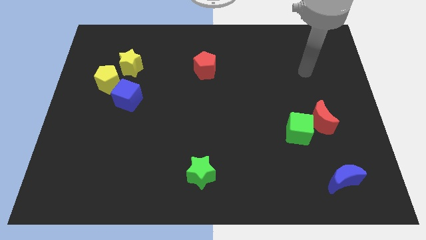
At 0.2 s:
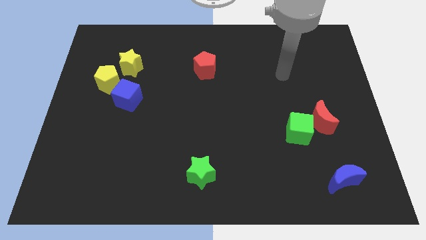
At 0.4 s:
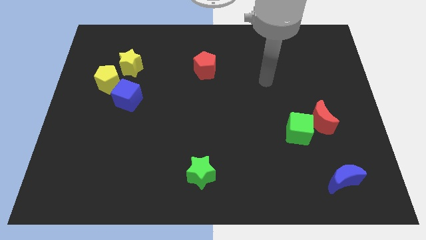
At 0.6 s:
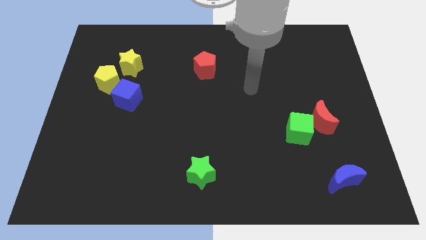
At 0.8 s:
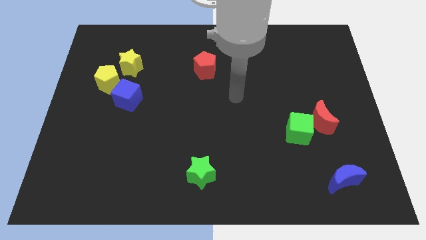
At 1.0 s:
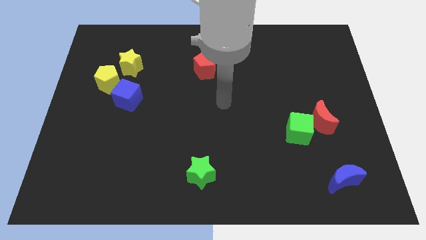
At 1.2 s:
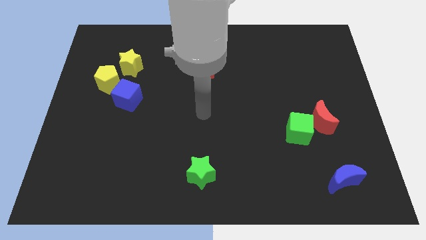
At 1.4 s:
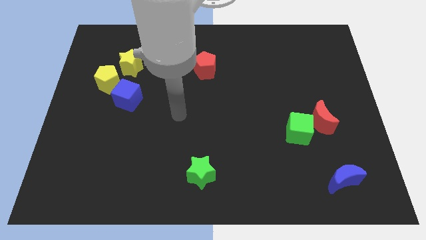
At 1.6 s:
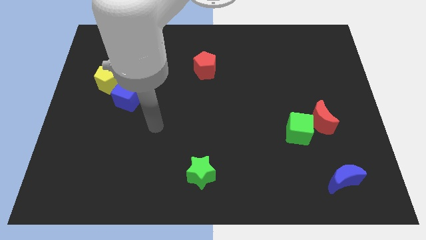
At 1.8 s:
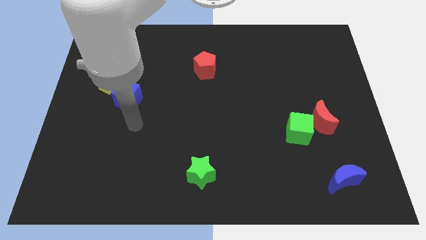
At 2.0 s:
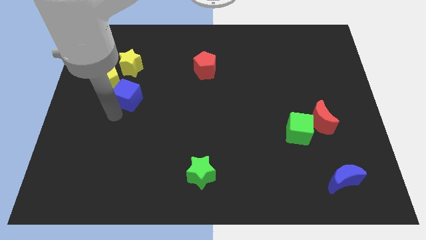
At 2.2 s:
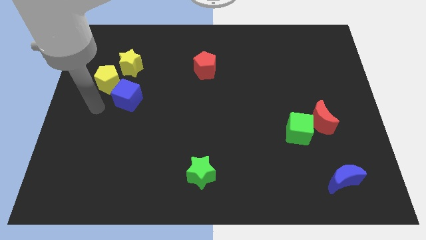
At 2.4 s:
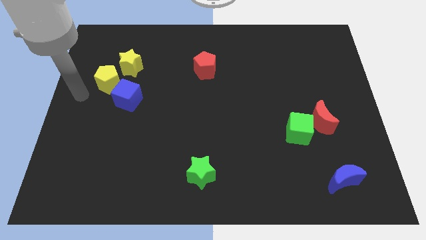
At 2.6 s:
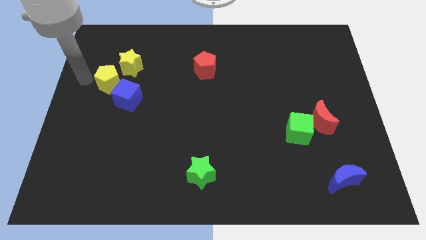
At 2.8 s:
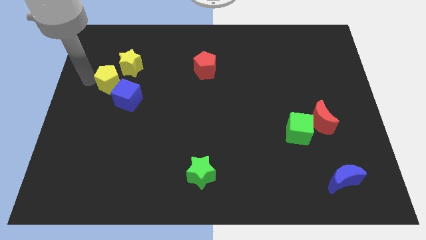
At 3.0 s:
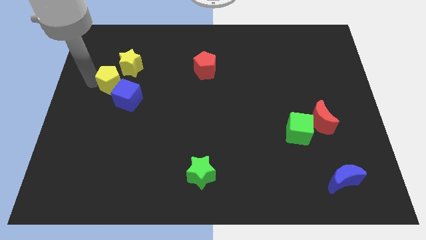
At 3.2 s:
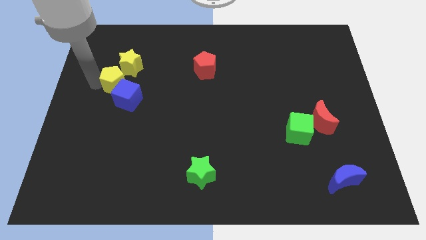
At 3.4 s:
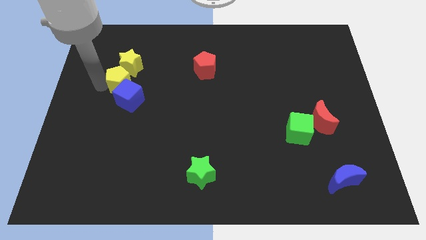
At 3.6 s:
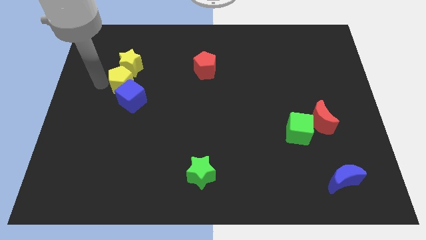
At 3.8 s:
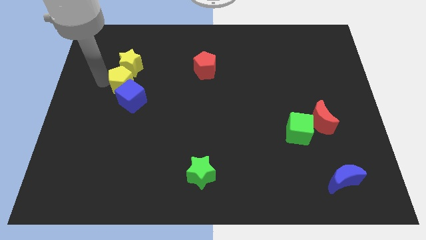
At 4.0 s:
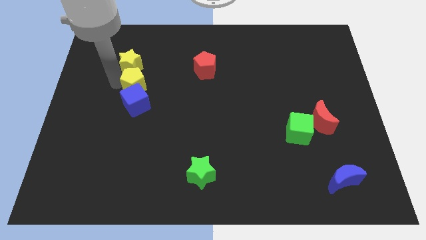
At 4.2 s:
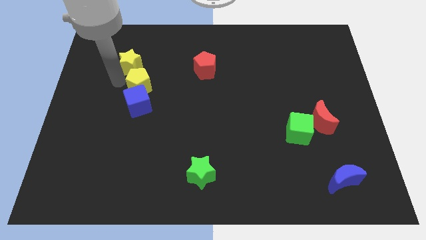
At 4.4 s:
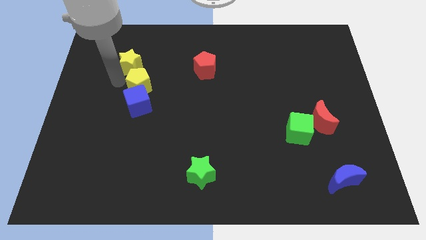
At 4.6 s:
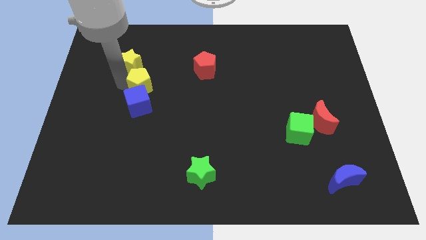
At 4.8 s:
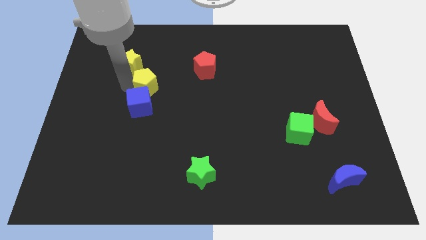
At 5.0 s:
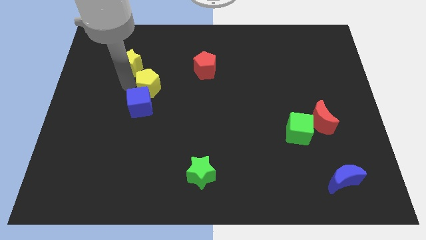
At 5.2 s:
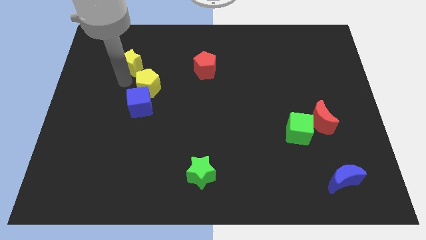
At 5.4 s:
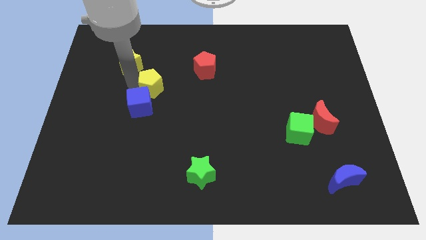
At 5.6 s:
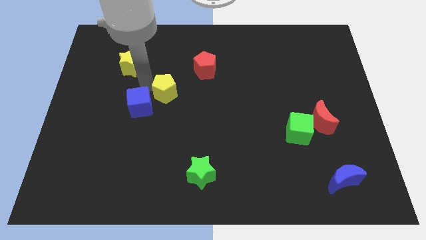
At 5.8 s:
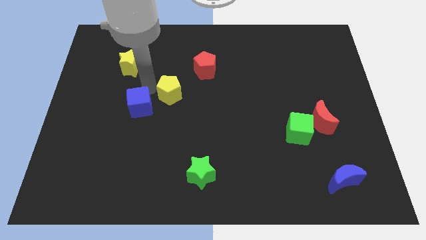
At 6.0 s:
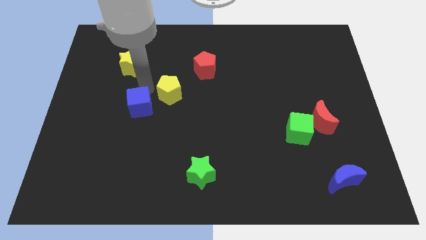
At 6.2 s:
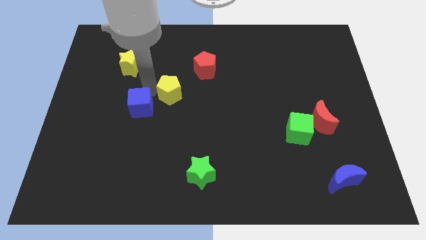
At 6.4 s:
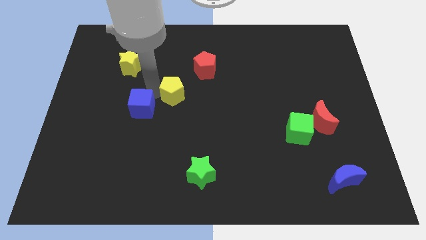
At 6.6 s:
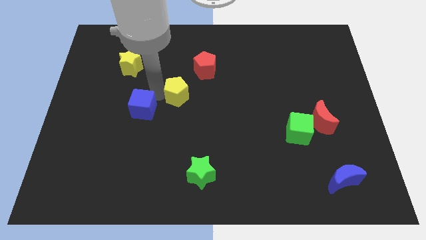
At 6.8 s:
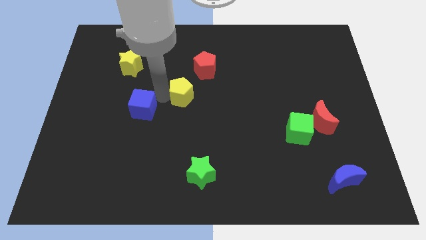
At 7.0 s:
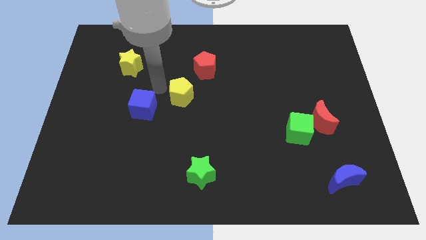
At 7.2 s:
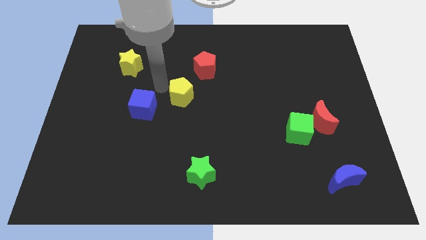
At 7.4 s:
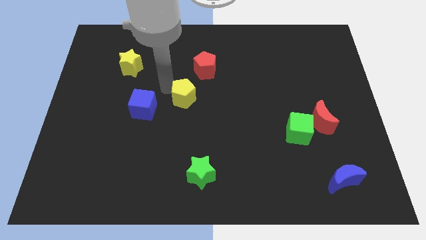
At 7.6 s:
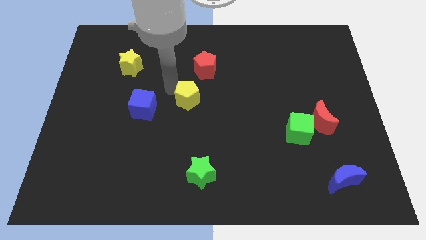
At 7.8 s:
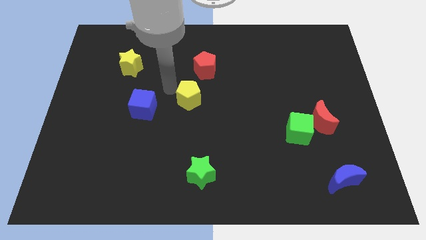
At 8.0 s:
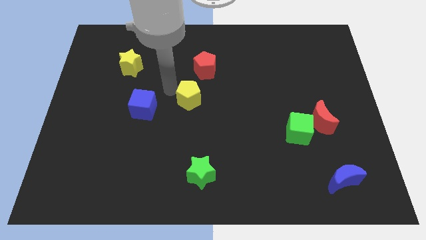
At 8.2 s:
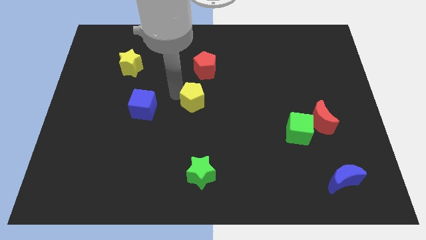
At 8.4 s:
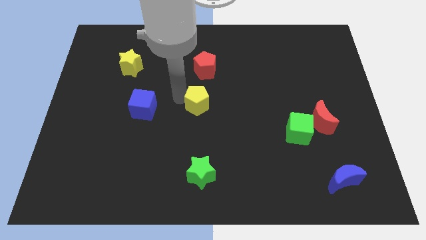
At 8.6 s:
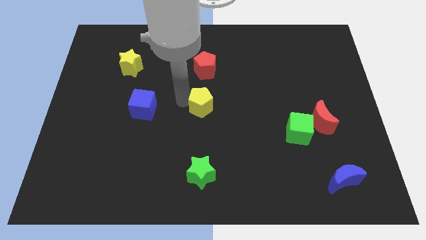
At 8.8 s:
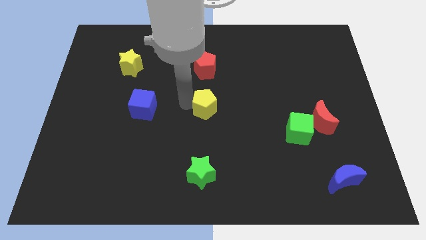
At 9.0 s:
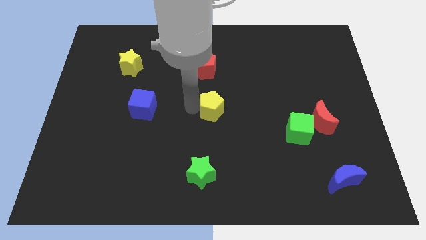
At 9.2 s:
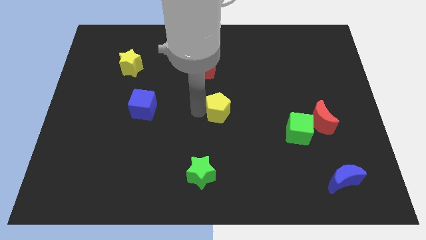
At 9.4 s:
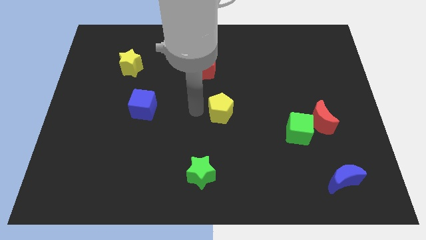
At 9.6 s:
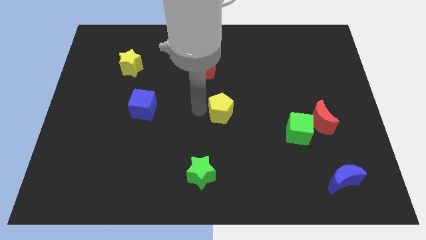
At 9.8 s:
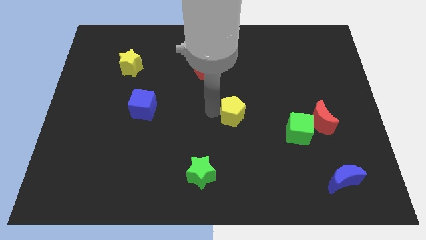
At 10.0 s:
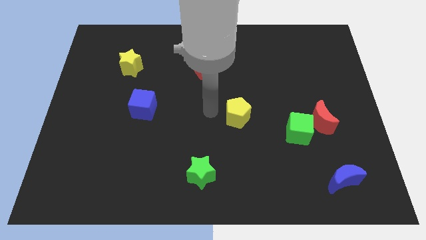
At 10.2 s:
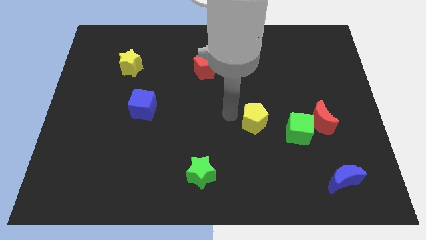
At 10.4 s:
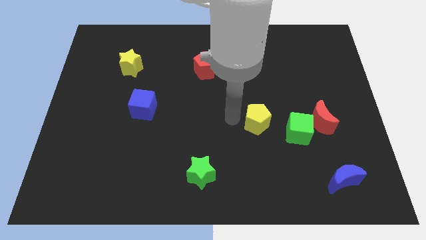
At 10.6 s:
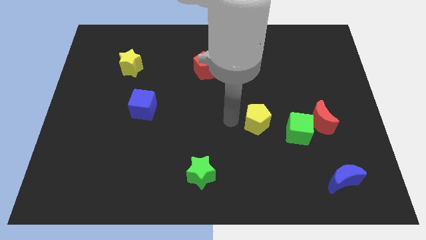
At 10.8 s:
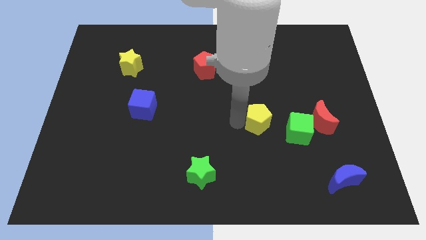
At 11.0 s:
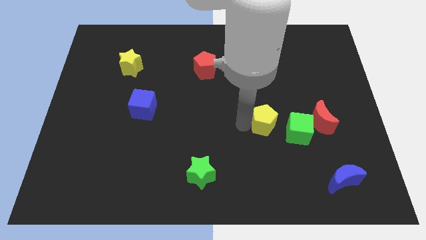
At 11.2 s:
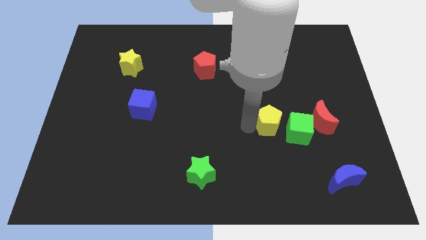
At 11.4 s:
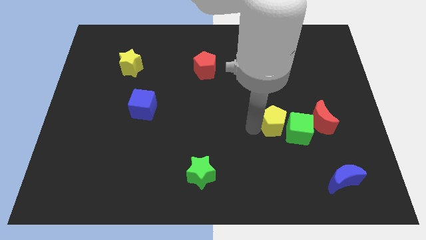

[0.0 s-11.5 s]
push the yellow pentagon to the green cube

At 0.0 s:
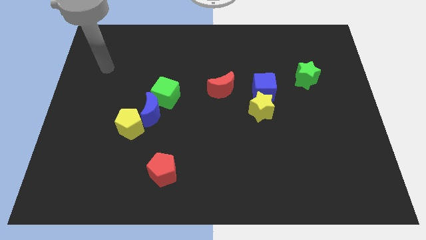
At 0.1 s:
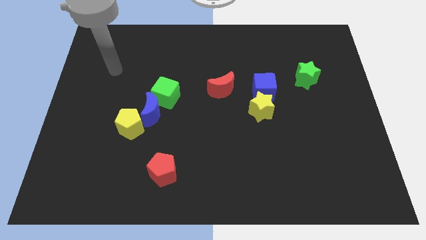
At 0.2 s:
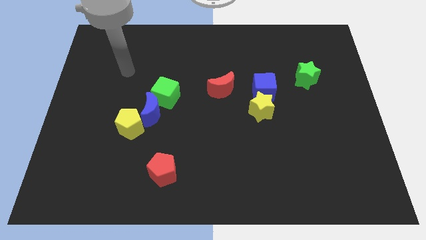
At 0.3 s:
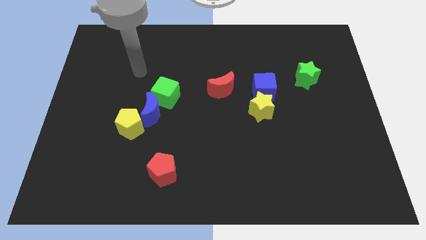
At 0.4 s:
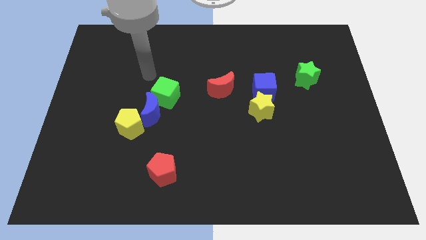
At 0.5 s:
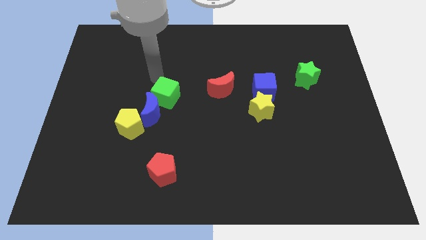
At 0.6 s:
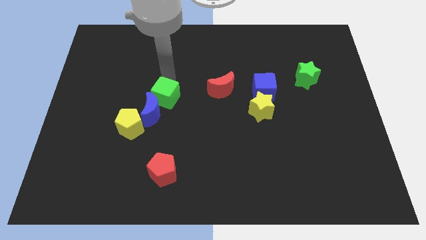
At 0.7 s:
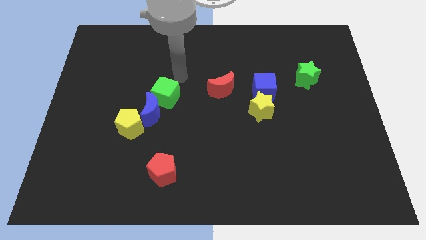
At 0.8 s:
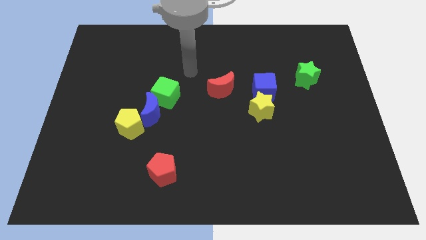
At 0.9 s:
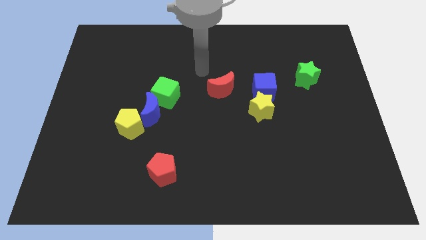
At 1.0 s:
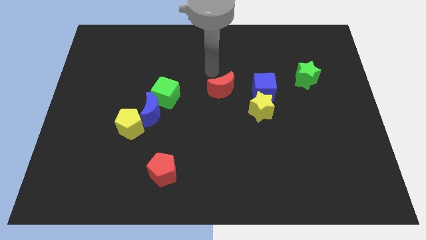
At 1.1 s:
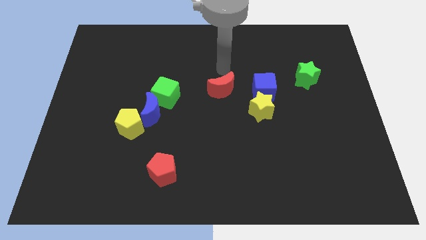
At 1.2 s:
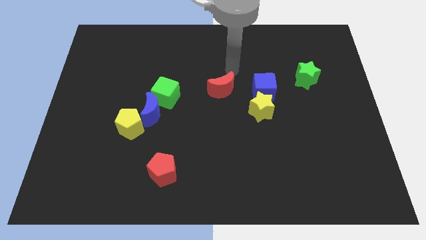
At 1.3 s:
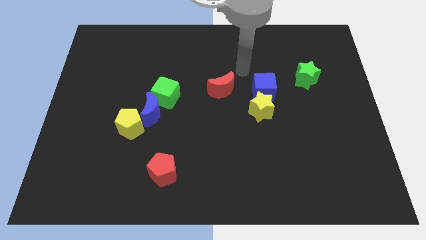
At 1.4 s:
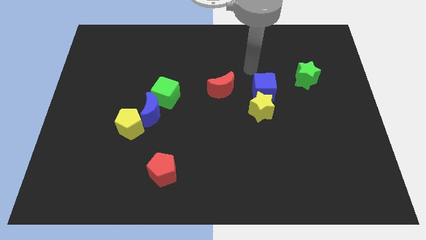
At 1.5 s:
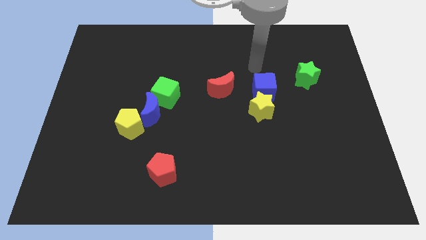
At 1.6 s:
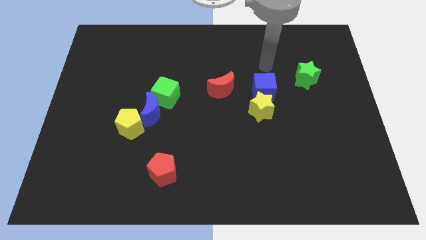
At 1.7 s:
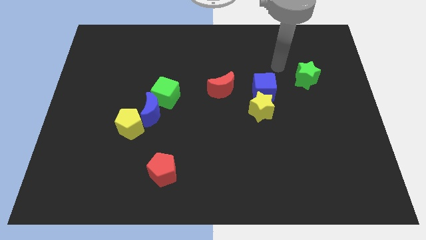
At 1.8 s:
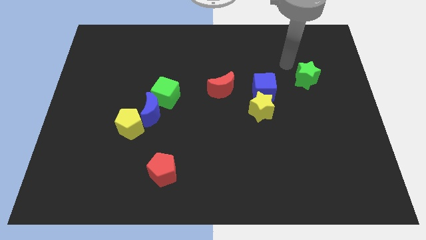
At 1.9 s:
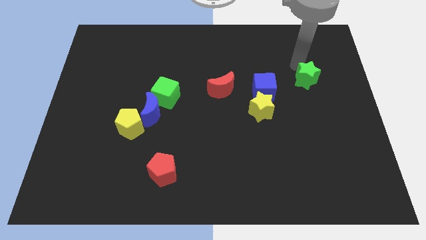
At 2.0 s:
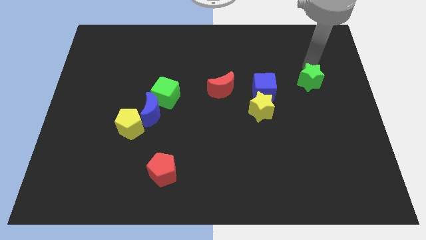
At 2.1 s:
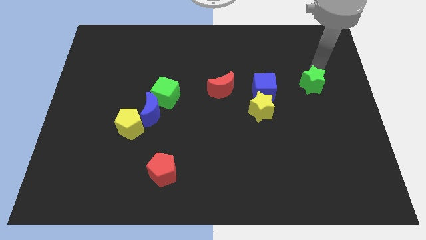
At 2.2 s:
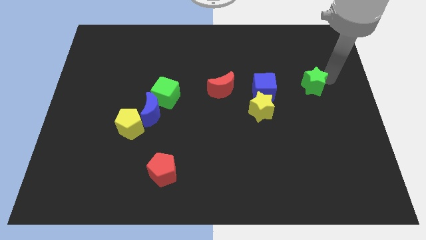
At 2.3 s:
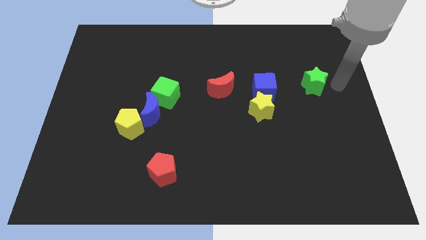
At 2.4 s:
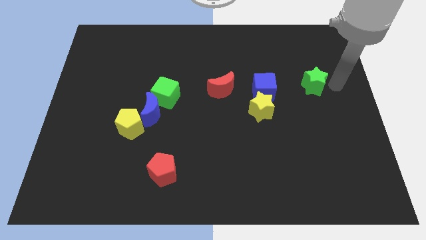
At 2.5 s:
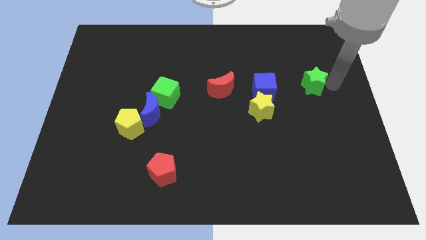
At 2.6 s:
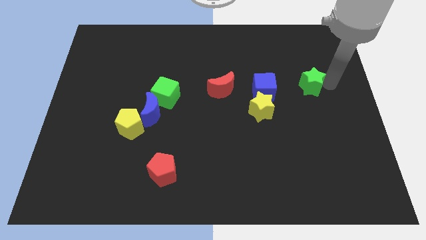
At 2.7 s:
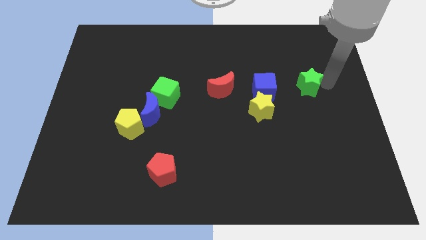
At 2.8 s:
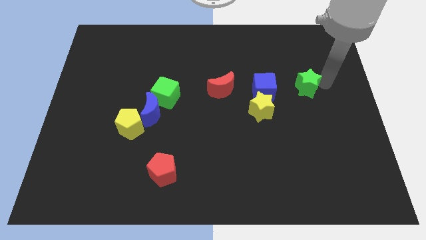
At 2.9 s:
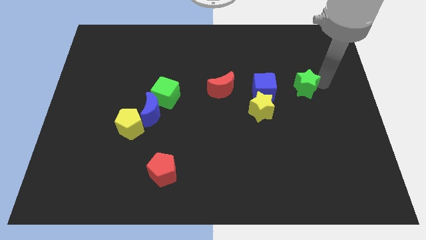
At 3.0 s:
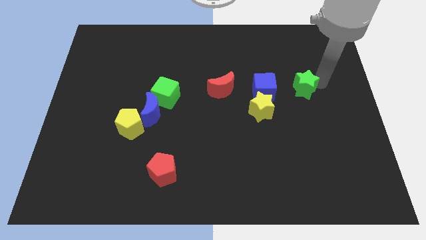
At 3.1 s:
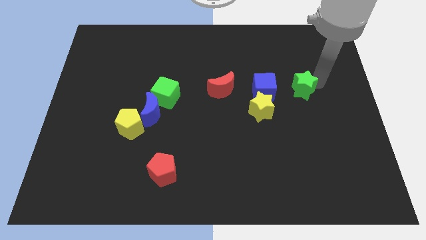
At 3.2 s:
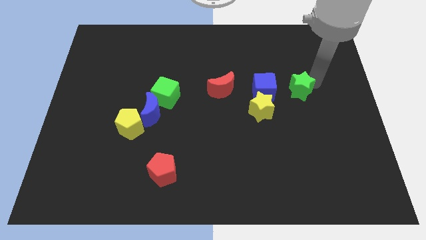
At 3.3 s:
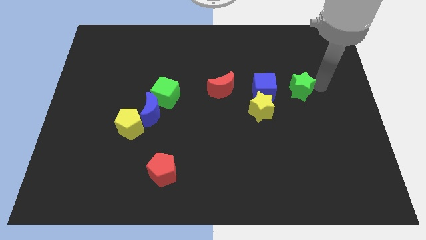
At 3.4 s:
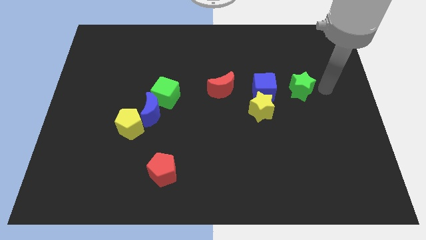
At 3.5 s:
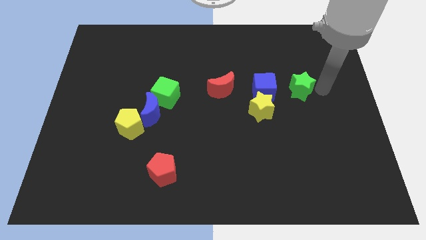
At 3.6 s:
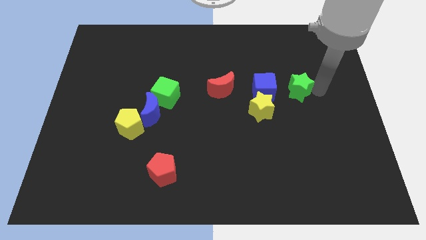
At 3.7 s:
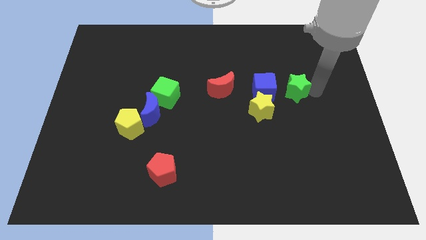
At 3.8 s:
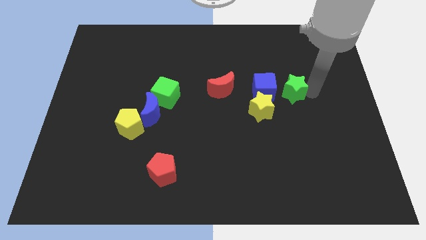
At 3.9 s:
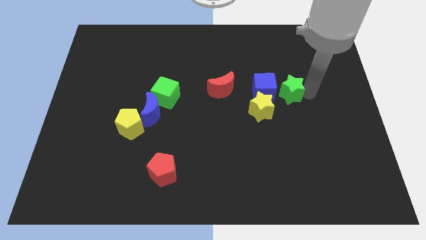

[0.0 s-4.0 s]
push the green star next to the blue cube
